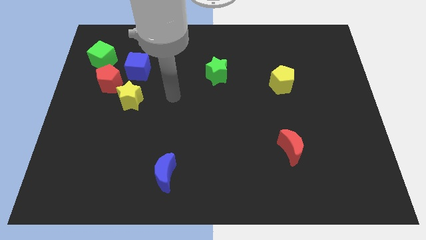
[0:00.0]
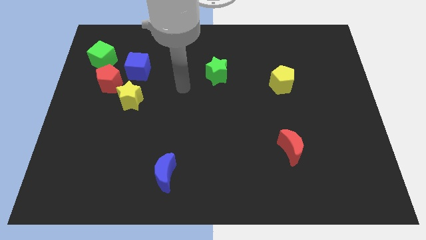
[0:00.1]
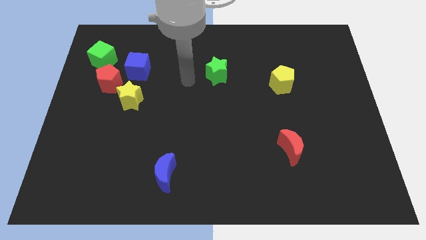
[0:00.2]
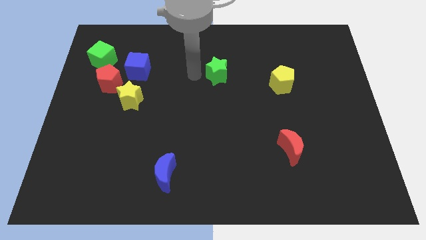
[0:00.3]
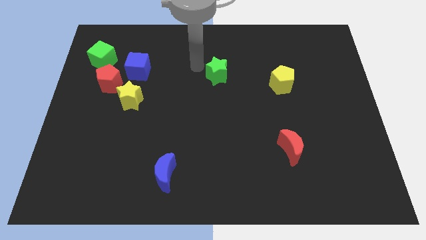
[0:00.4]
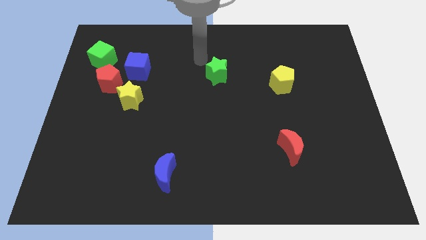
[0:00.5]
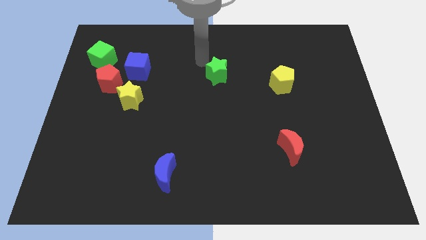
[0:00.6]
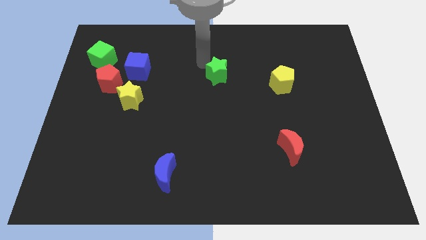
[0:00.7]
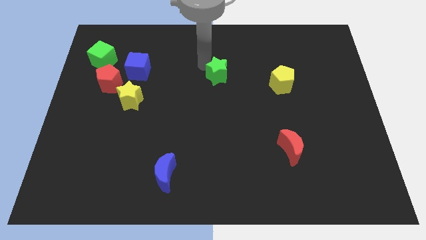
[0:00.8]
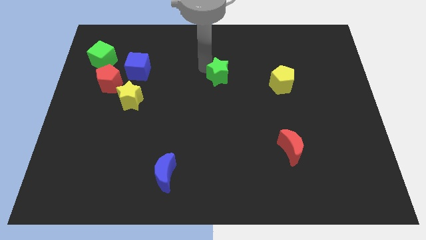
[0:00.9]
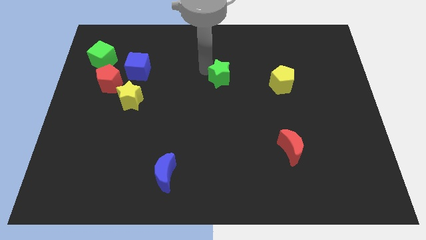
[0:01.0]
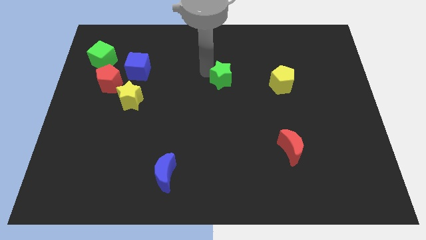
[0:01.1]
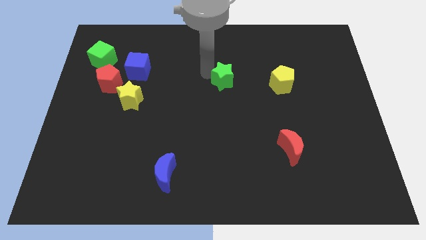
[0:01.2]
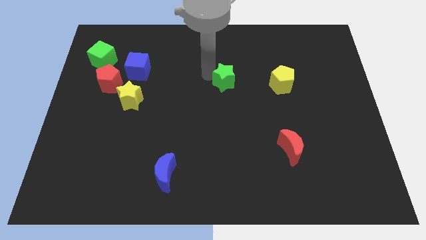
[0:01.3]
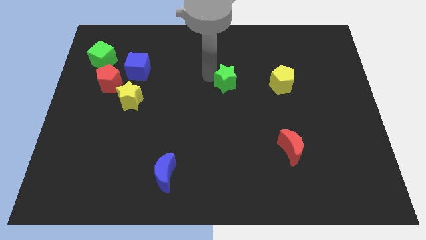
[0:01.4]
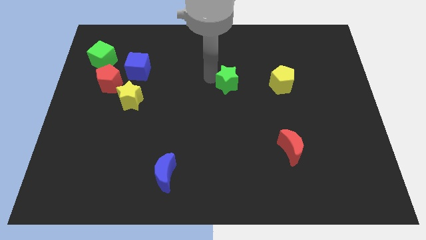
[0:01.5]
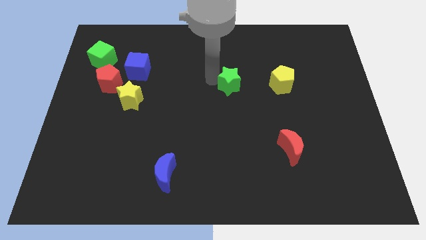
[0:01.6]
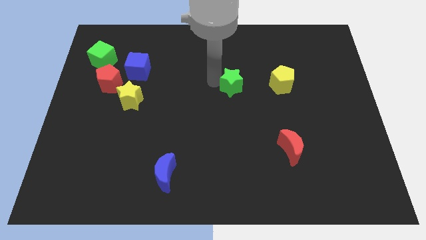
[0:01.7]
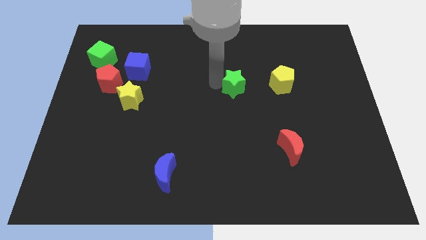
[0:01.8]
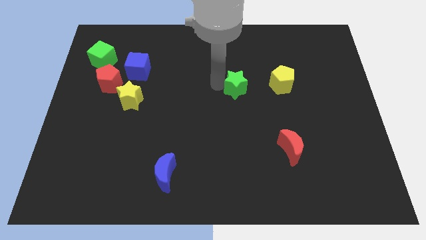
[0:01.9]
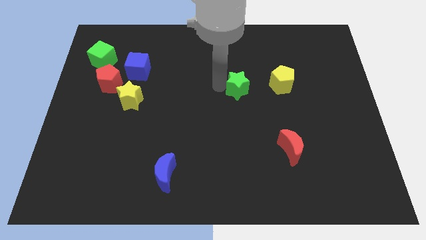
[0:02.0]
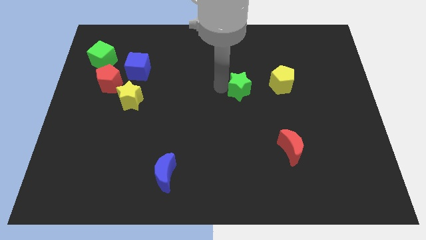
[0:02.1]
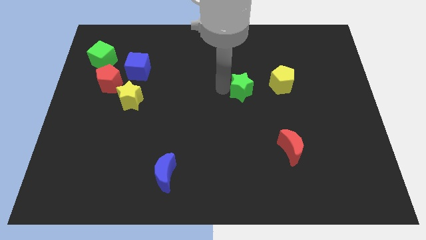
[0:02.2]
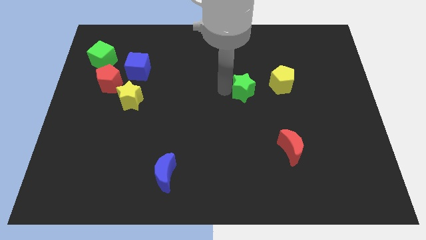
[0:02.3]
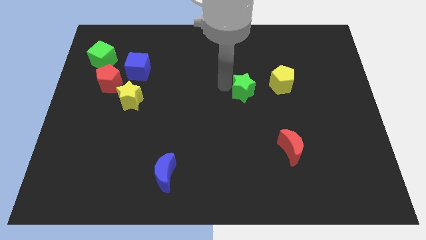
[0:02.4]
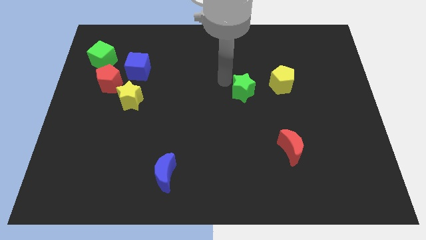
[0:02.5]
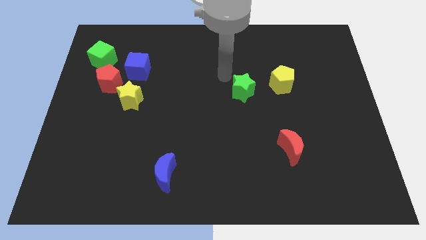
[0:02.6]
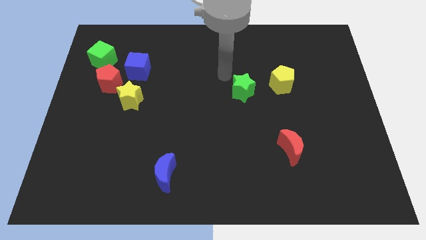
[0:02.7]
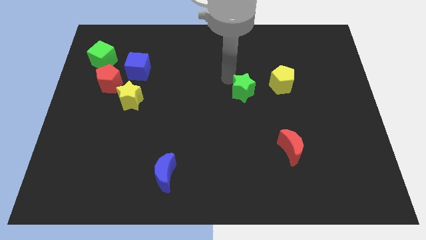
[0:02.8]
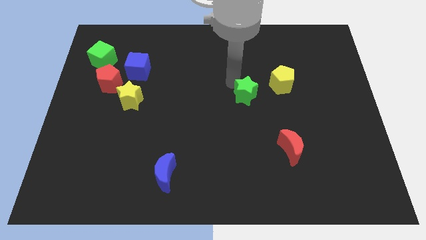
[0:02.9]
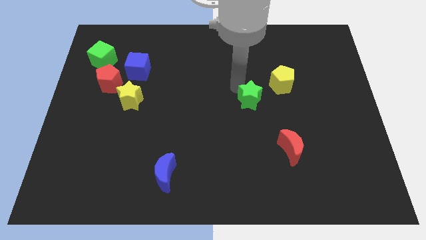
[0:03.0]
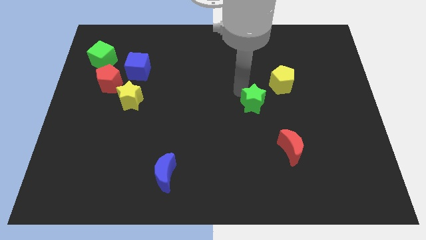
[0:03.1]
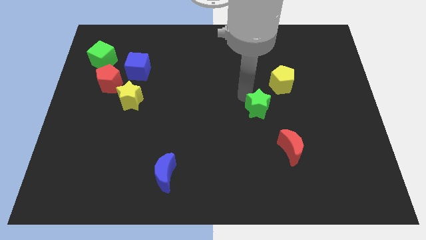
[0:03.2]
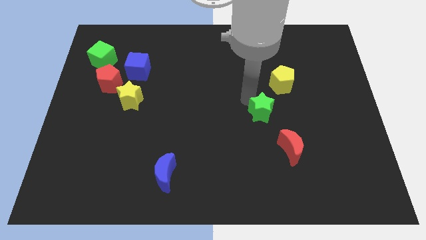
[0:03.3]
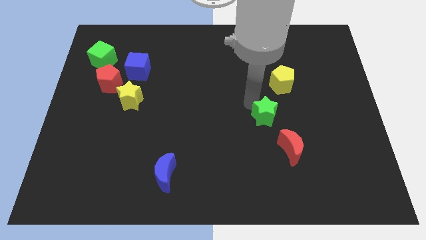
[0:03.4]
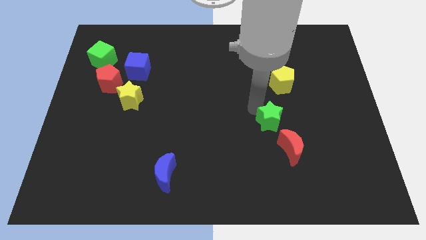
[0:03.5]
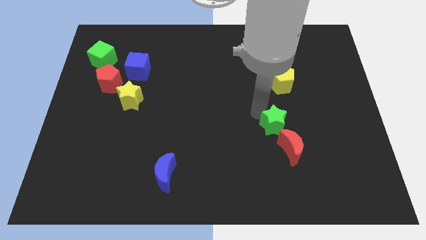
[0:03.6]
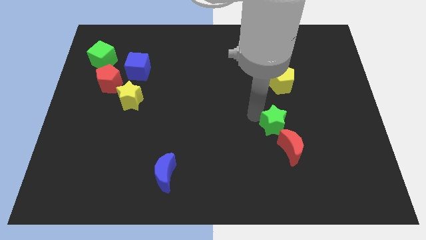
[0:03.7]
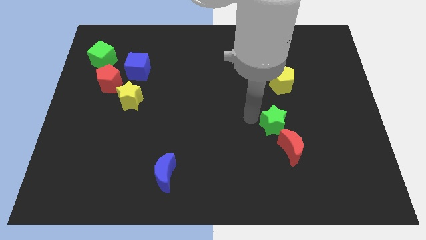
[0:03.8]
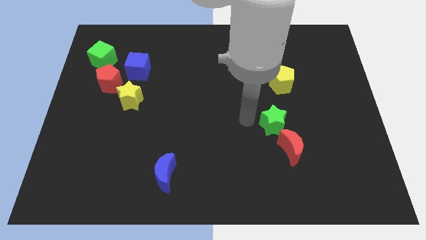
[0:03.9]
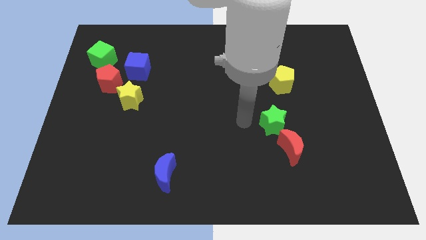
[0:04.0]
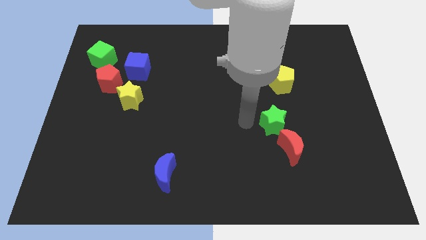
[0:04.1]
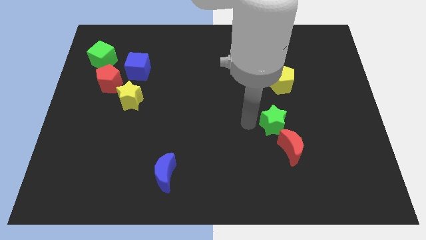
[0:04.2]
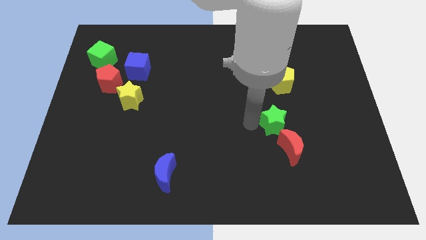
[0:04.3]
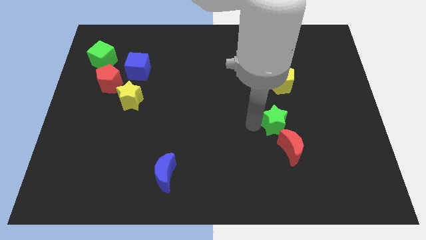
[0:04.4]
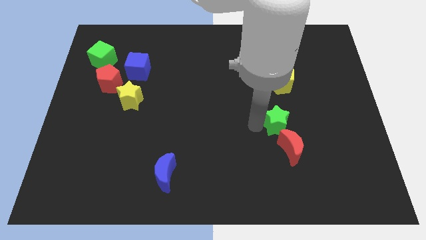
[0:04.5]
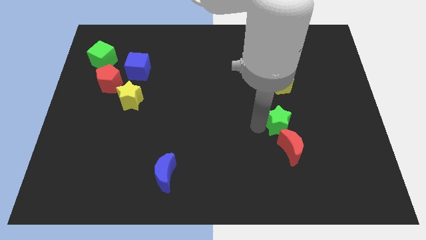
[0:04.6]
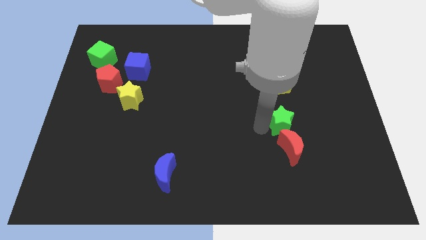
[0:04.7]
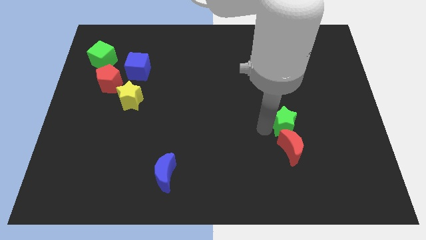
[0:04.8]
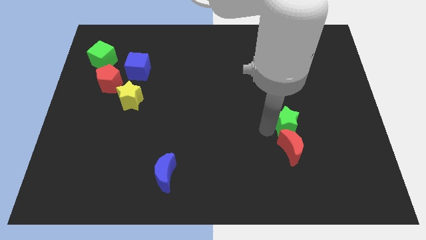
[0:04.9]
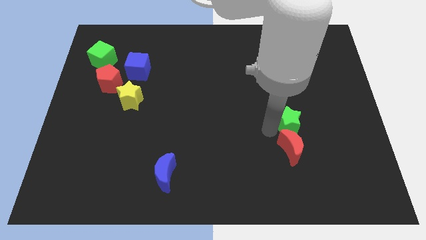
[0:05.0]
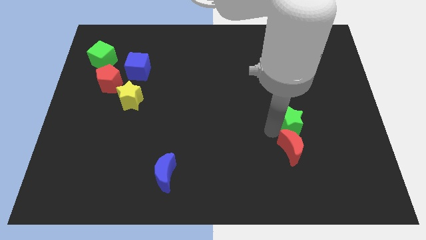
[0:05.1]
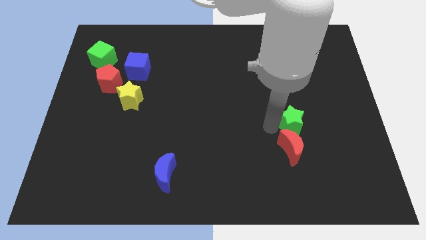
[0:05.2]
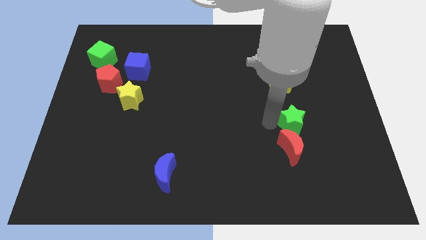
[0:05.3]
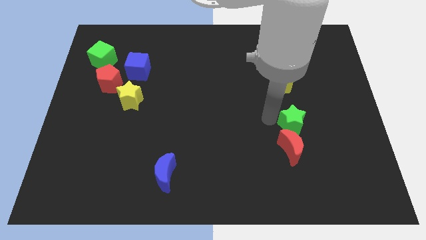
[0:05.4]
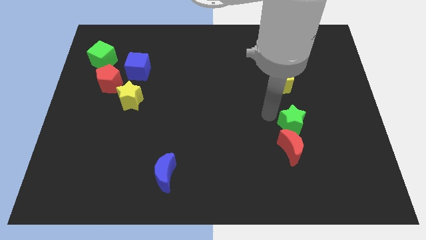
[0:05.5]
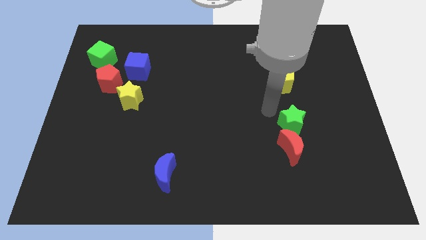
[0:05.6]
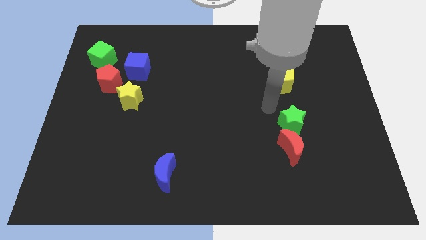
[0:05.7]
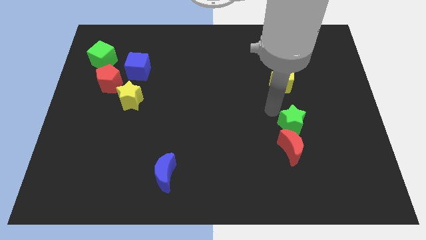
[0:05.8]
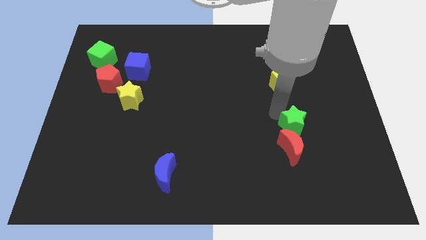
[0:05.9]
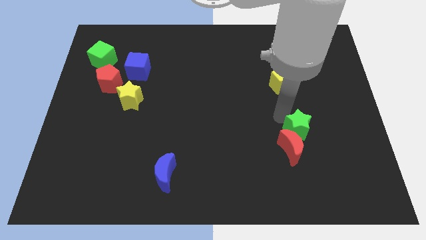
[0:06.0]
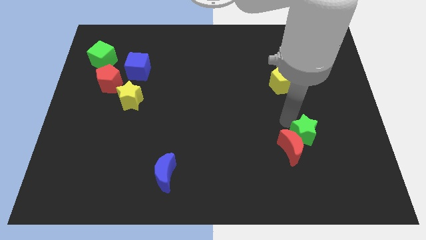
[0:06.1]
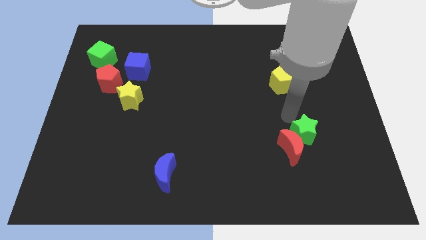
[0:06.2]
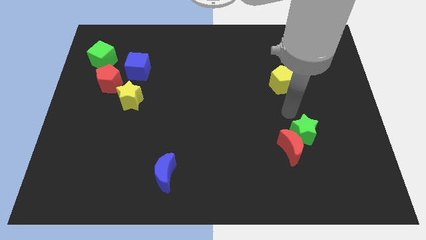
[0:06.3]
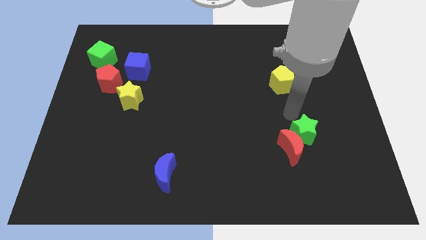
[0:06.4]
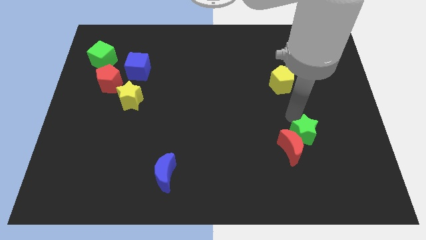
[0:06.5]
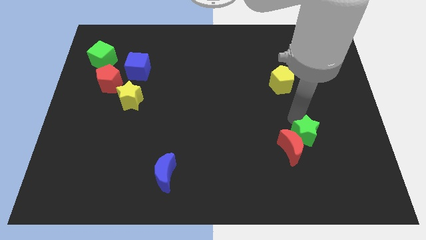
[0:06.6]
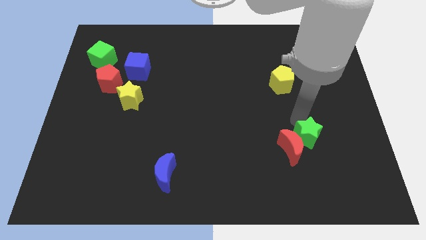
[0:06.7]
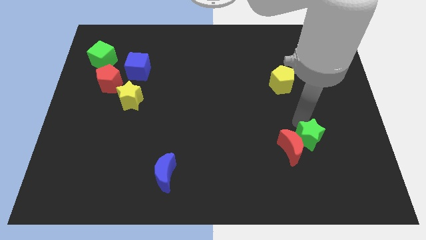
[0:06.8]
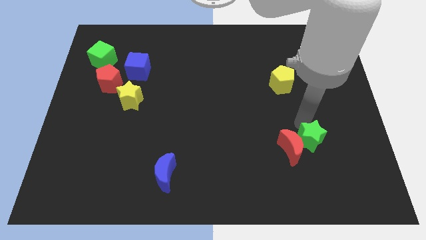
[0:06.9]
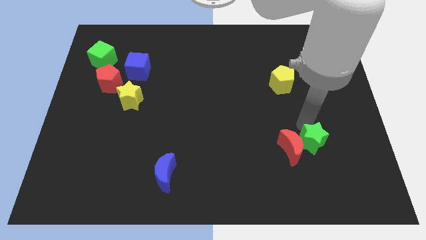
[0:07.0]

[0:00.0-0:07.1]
slide the green star to the bottom right side of the red moon

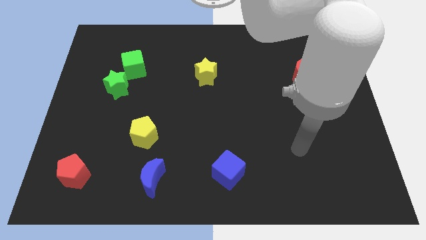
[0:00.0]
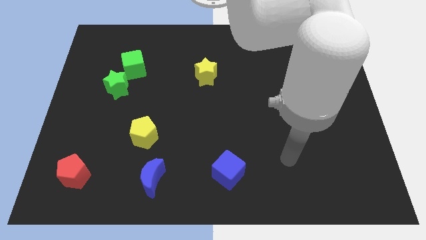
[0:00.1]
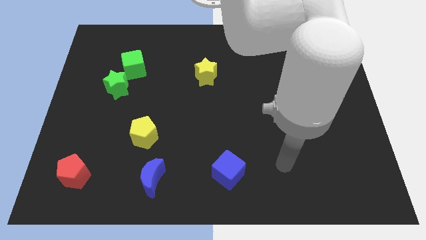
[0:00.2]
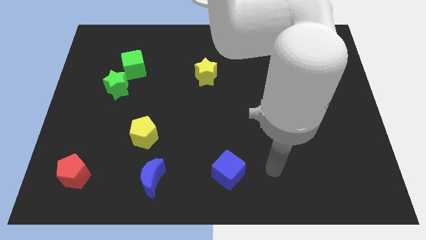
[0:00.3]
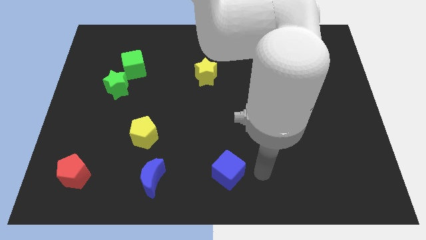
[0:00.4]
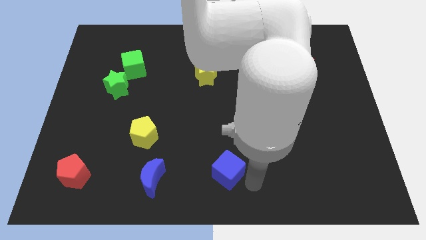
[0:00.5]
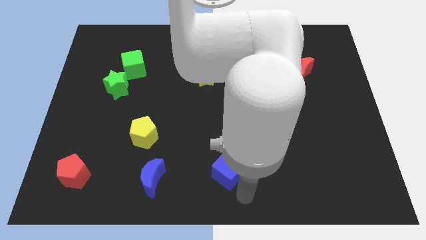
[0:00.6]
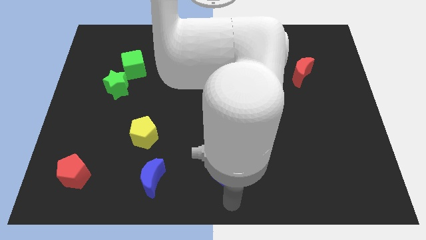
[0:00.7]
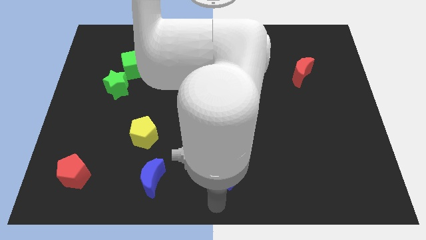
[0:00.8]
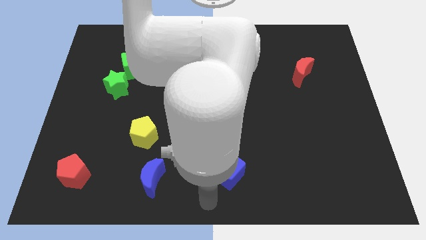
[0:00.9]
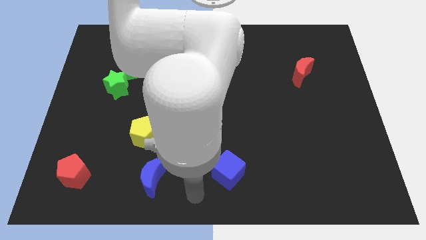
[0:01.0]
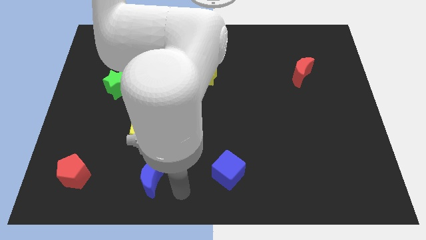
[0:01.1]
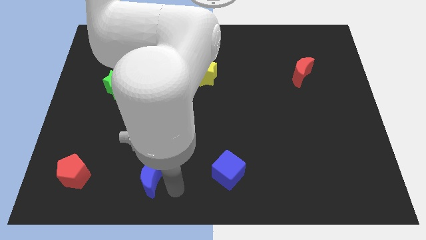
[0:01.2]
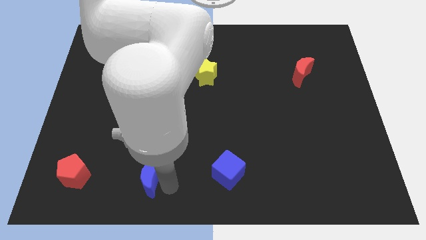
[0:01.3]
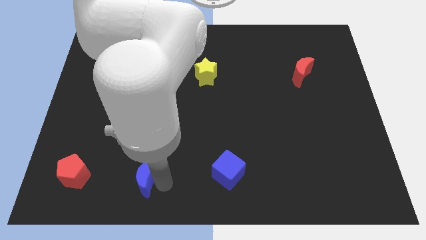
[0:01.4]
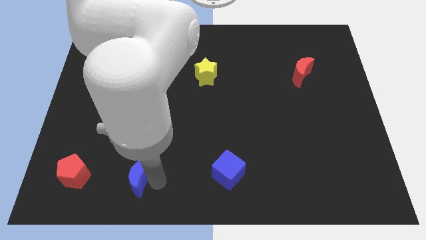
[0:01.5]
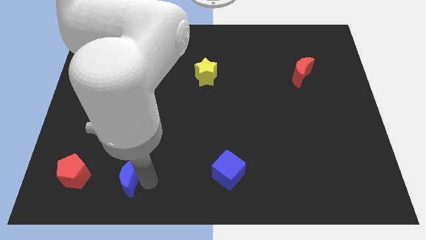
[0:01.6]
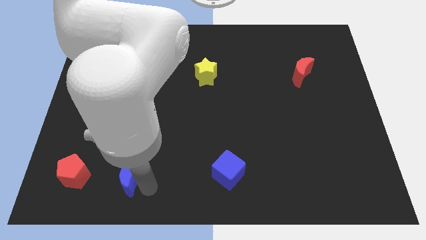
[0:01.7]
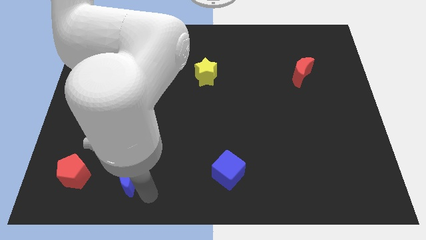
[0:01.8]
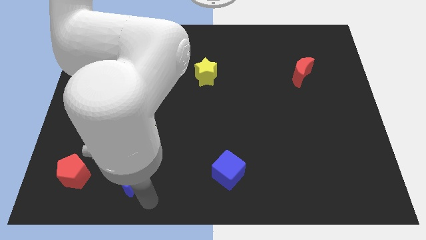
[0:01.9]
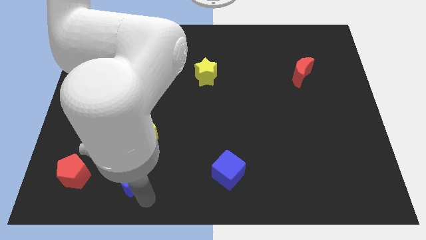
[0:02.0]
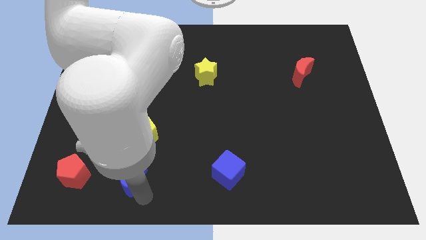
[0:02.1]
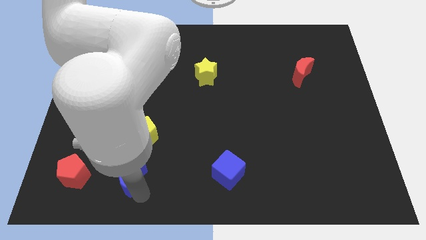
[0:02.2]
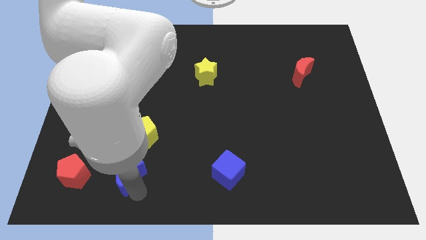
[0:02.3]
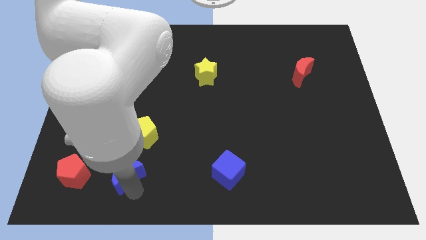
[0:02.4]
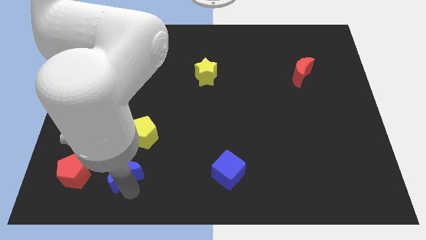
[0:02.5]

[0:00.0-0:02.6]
put the blue moon to the bottom left side of the yellow pentagon
